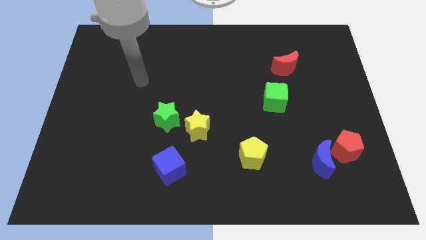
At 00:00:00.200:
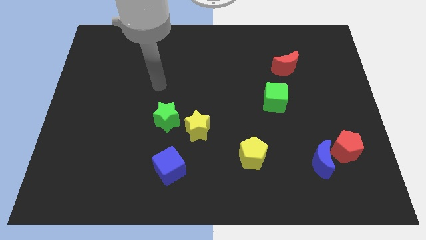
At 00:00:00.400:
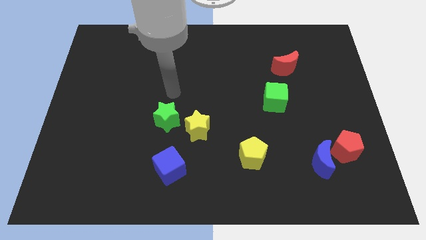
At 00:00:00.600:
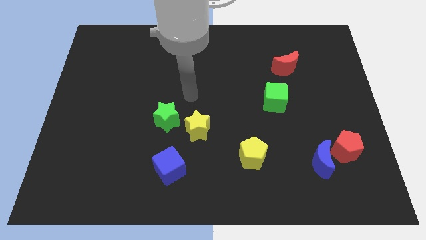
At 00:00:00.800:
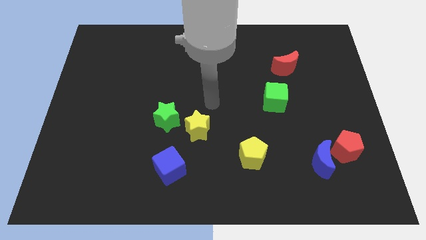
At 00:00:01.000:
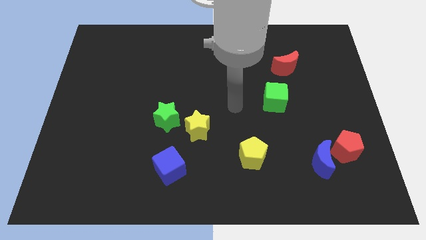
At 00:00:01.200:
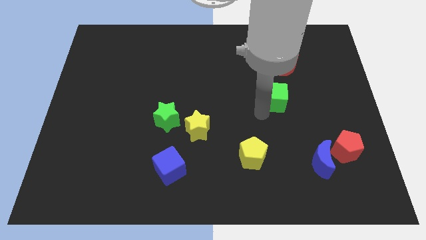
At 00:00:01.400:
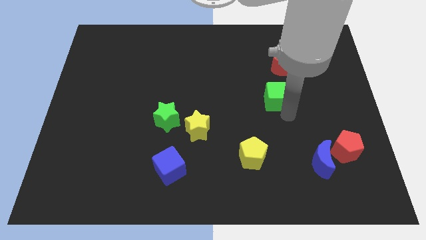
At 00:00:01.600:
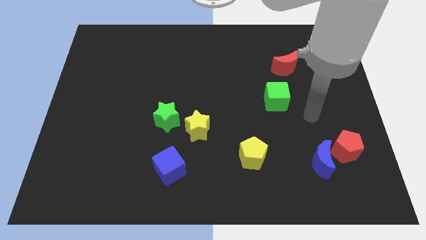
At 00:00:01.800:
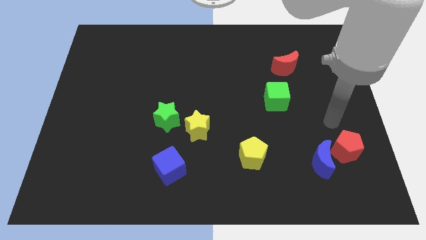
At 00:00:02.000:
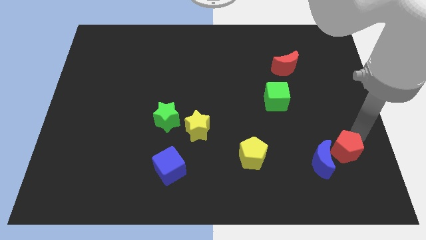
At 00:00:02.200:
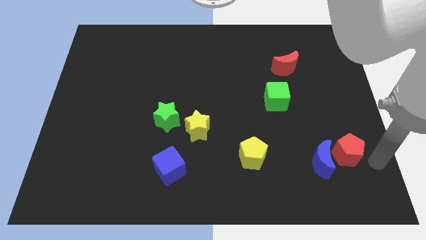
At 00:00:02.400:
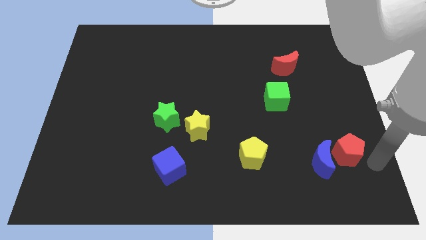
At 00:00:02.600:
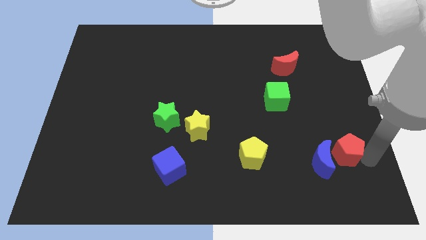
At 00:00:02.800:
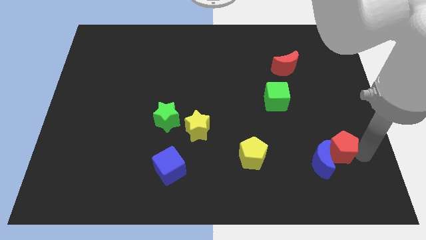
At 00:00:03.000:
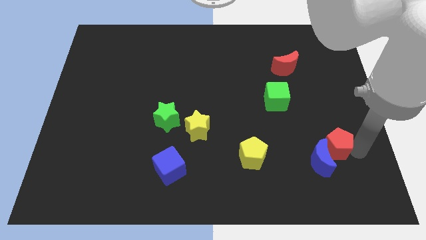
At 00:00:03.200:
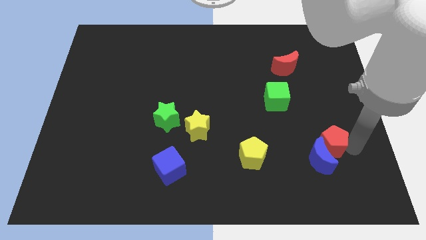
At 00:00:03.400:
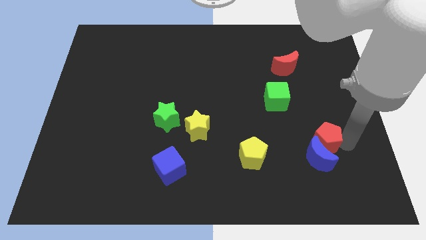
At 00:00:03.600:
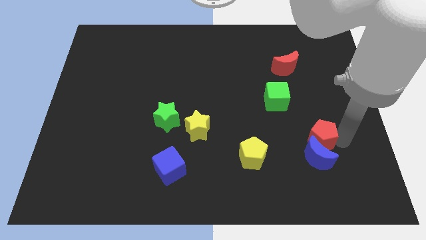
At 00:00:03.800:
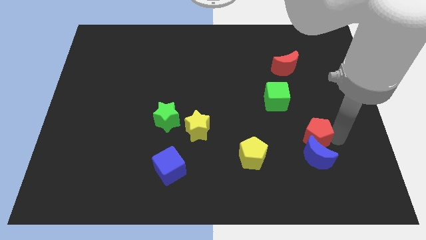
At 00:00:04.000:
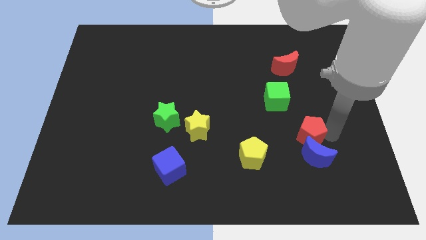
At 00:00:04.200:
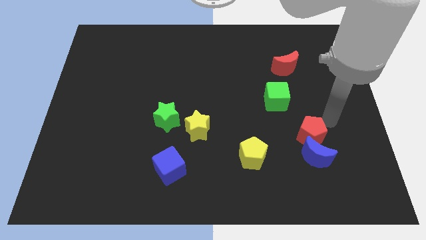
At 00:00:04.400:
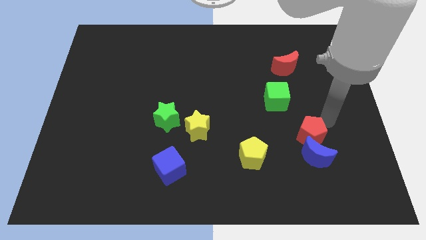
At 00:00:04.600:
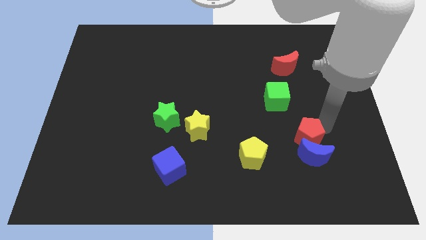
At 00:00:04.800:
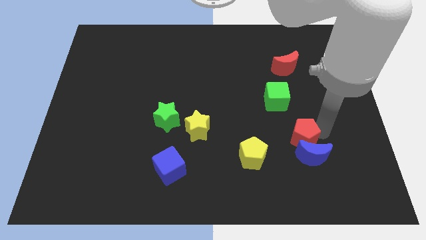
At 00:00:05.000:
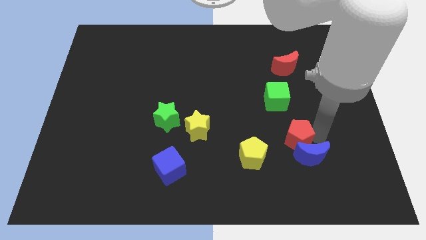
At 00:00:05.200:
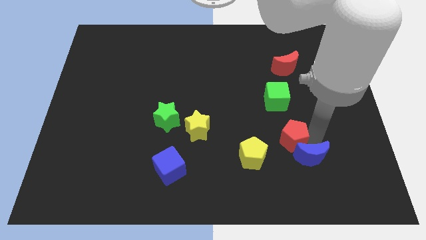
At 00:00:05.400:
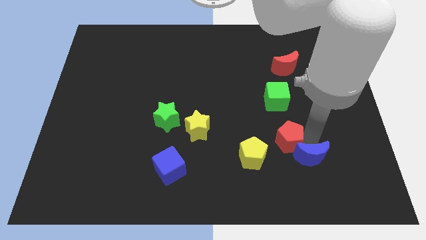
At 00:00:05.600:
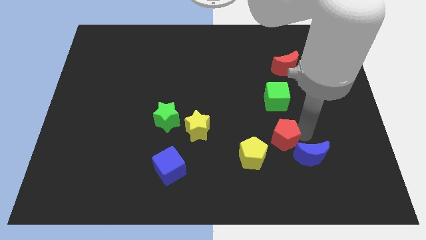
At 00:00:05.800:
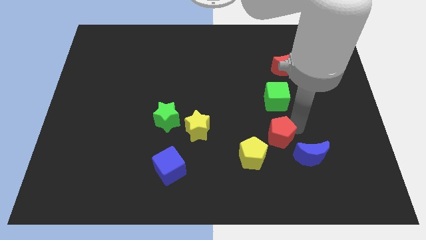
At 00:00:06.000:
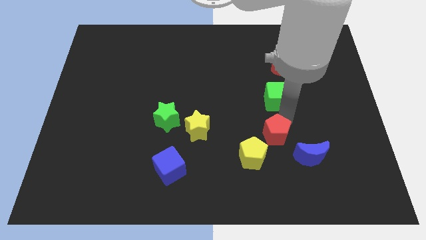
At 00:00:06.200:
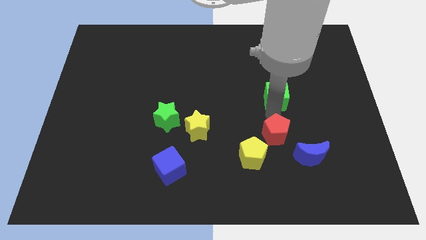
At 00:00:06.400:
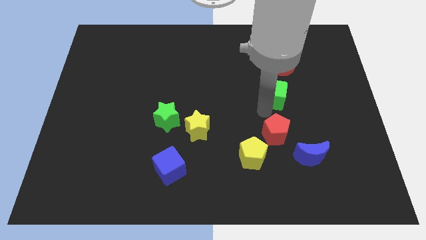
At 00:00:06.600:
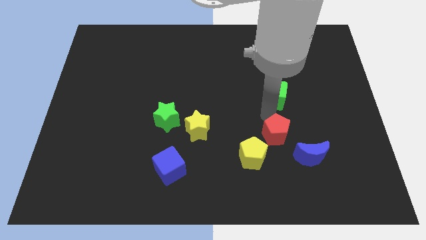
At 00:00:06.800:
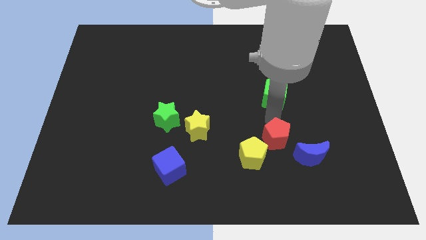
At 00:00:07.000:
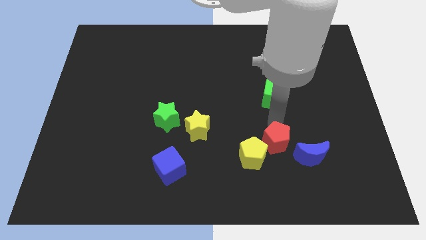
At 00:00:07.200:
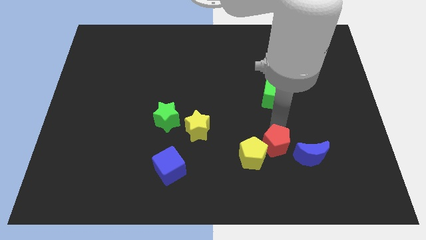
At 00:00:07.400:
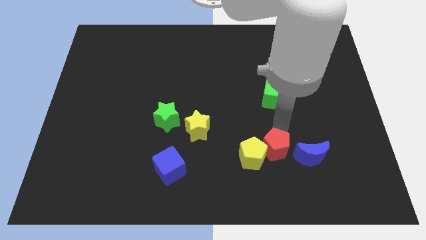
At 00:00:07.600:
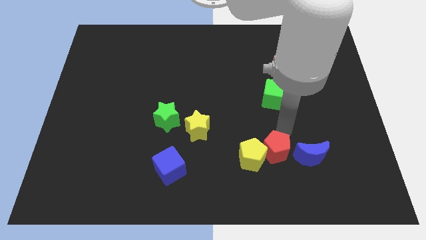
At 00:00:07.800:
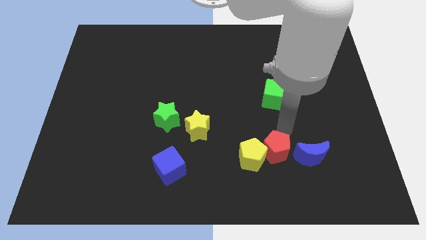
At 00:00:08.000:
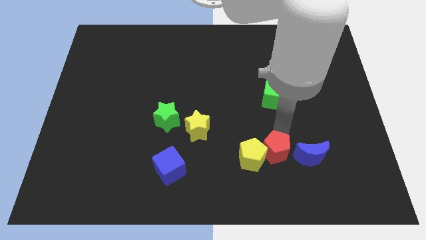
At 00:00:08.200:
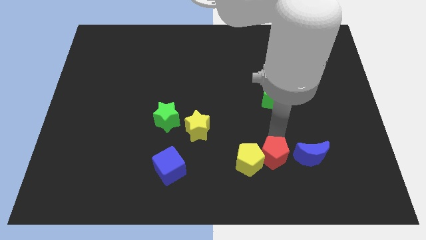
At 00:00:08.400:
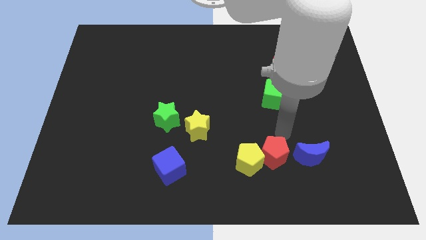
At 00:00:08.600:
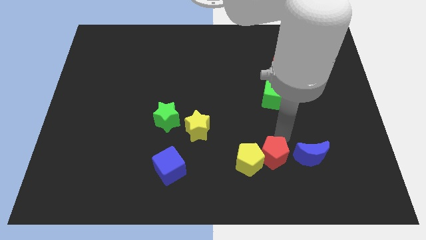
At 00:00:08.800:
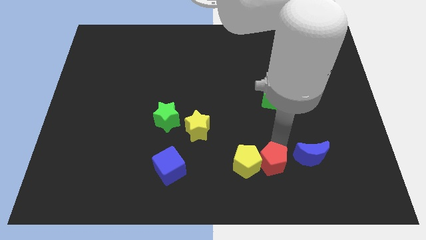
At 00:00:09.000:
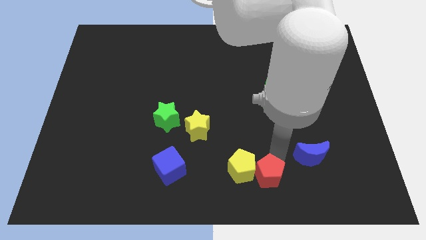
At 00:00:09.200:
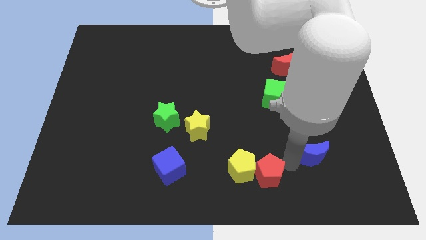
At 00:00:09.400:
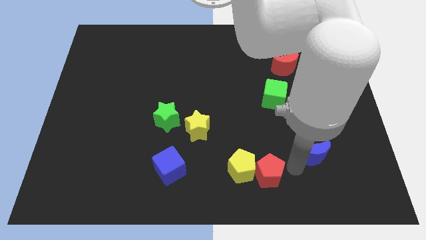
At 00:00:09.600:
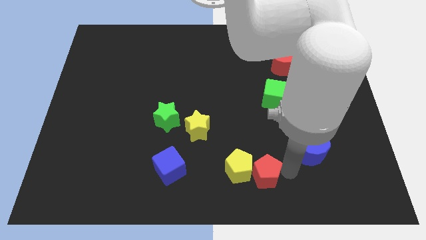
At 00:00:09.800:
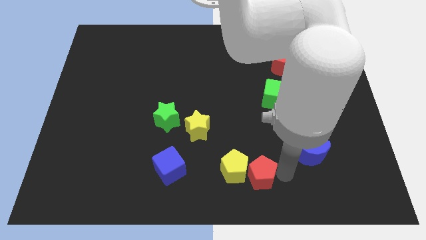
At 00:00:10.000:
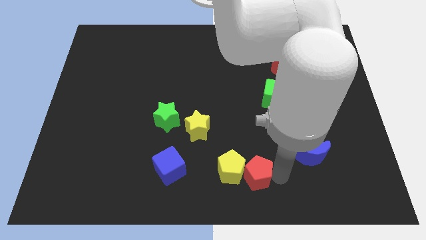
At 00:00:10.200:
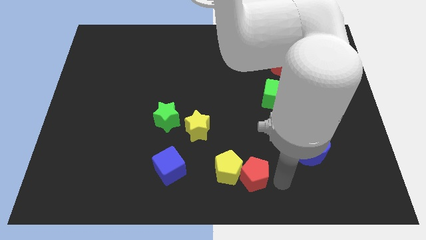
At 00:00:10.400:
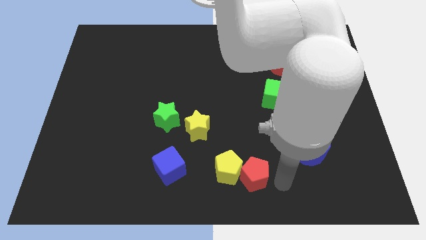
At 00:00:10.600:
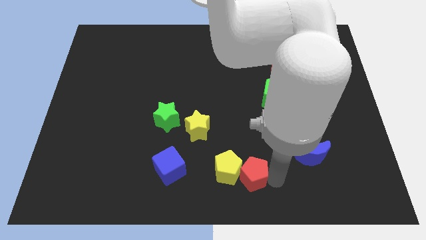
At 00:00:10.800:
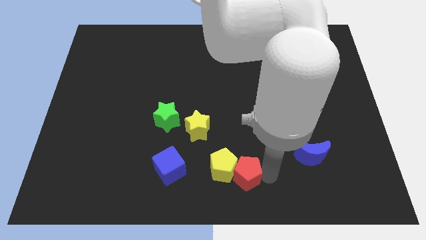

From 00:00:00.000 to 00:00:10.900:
move the red pentagon right of the blue cube
